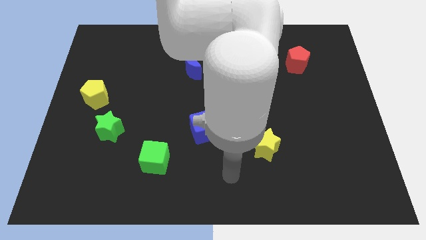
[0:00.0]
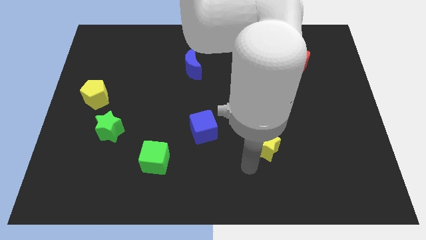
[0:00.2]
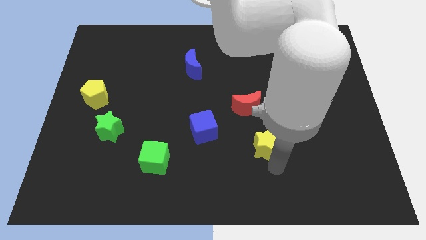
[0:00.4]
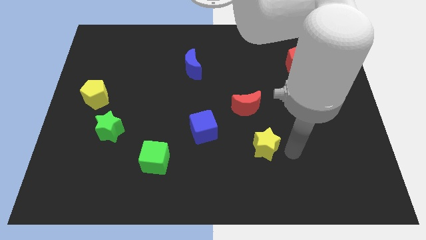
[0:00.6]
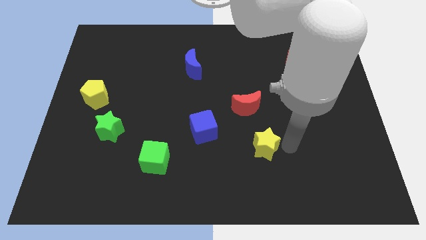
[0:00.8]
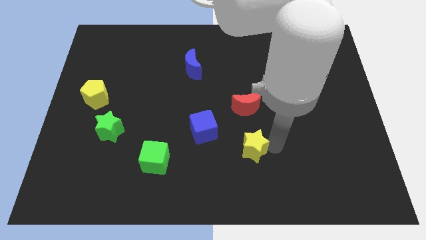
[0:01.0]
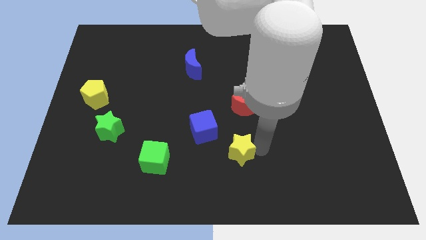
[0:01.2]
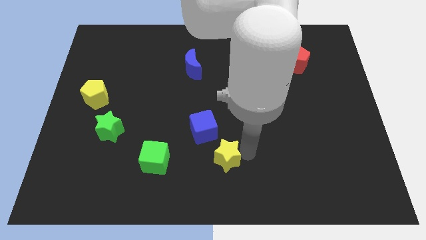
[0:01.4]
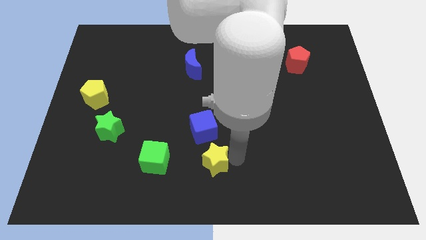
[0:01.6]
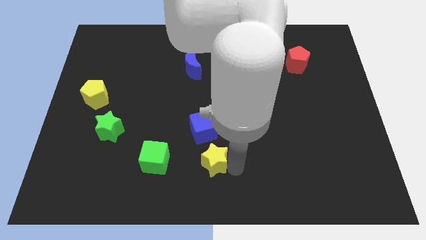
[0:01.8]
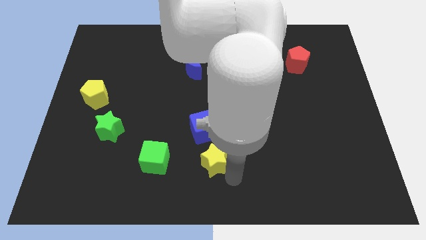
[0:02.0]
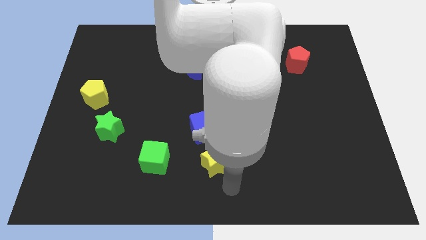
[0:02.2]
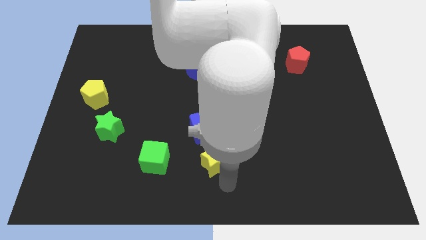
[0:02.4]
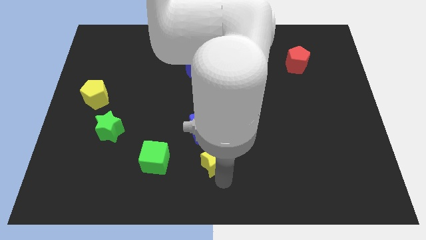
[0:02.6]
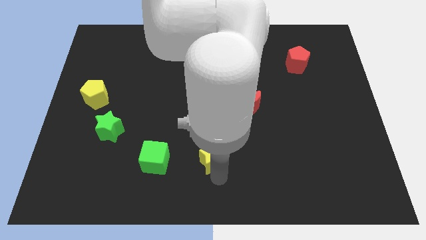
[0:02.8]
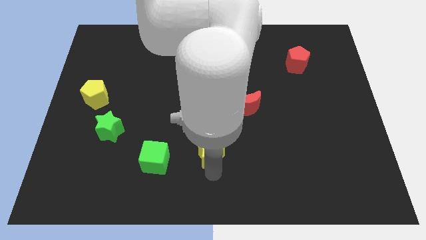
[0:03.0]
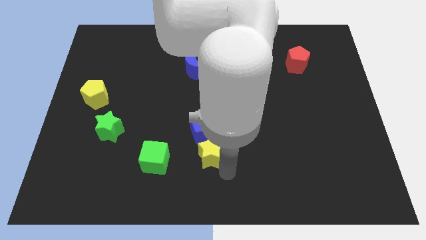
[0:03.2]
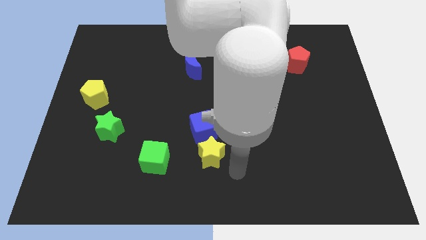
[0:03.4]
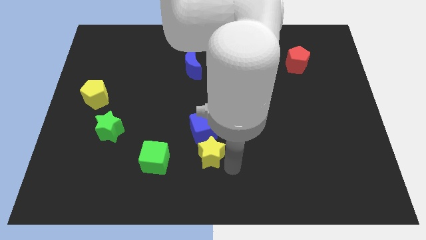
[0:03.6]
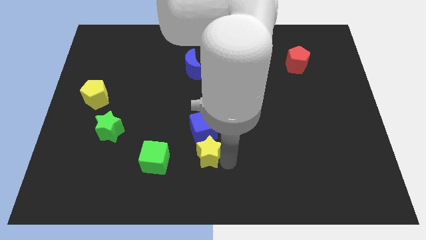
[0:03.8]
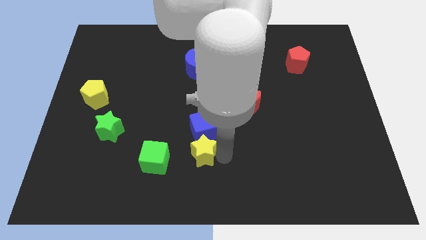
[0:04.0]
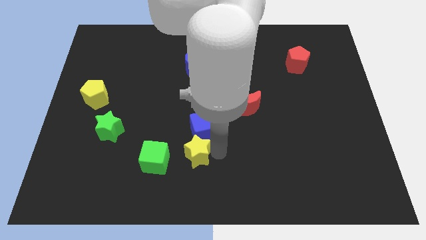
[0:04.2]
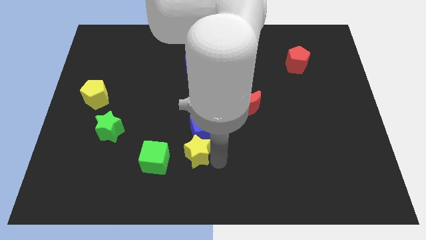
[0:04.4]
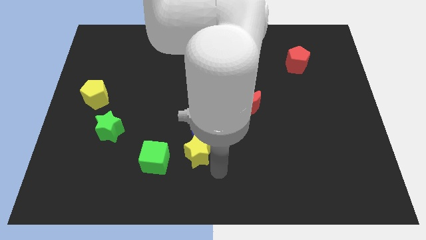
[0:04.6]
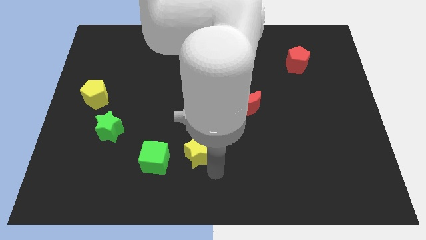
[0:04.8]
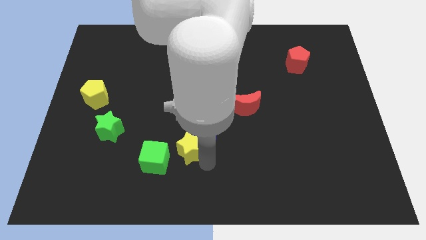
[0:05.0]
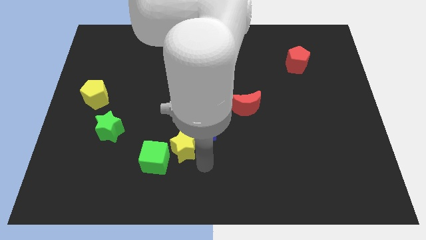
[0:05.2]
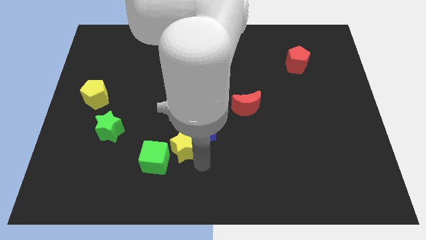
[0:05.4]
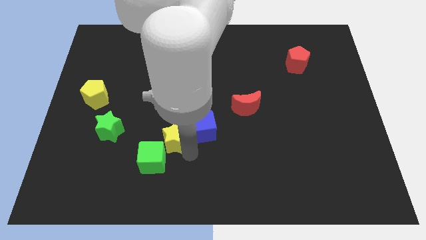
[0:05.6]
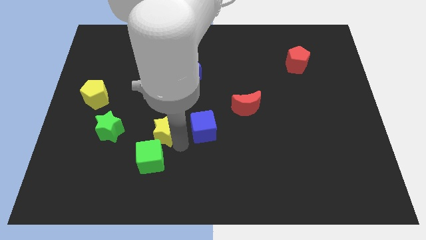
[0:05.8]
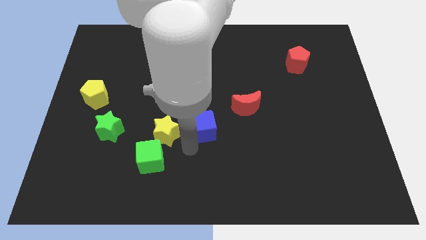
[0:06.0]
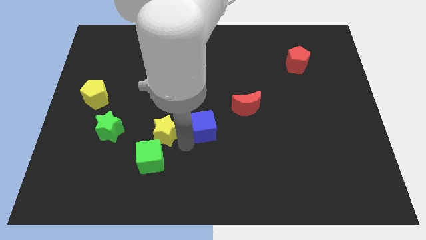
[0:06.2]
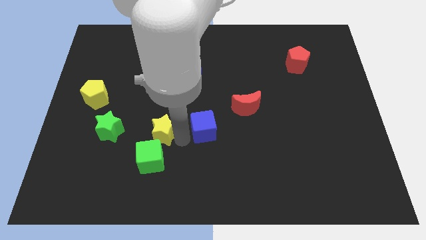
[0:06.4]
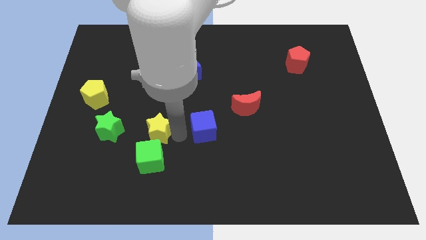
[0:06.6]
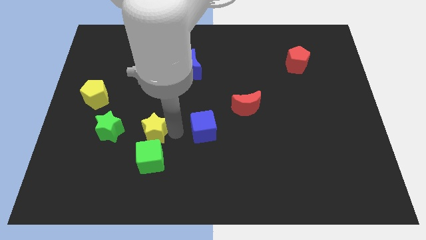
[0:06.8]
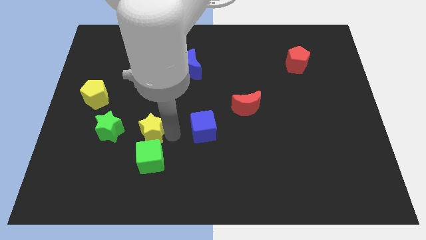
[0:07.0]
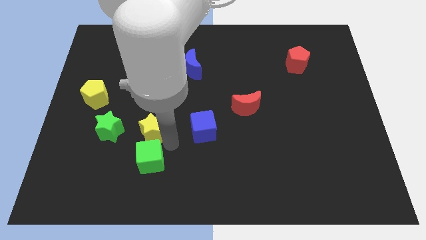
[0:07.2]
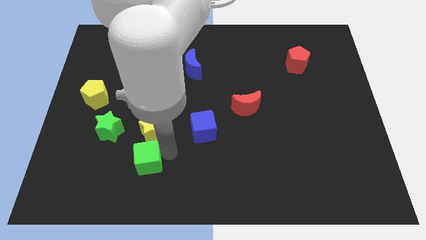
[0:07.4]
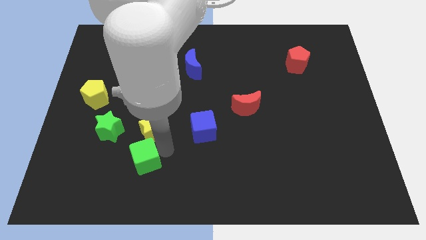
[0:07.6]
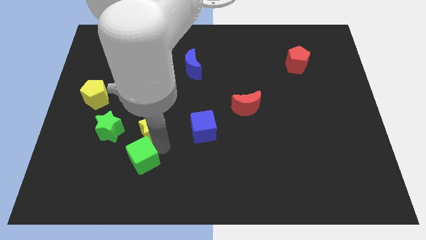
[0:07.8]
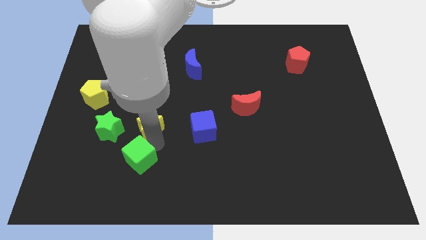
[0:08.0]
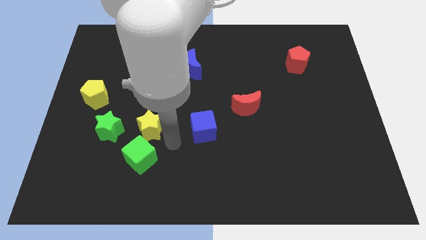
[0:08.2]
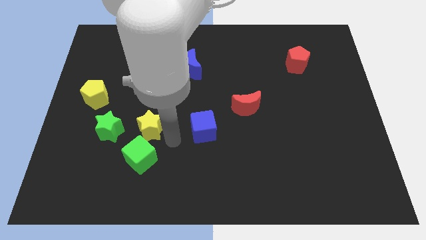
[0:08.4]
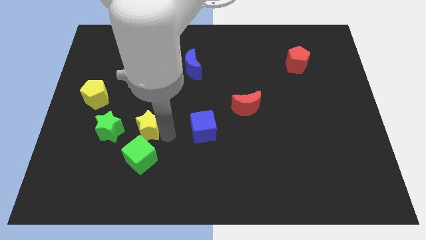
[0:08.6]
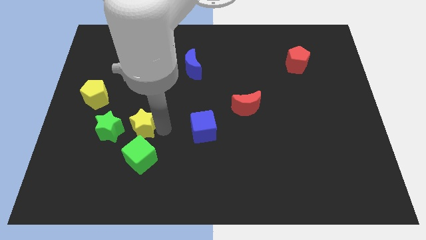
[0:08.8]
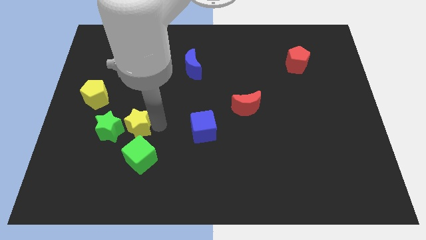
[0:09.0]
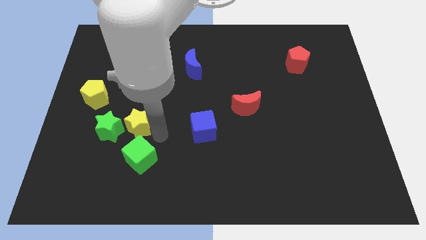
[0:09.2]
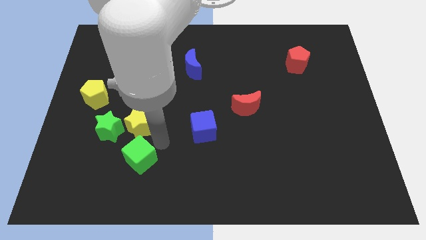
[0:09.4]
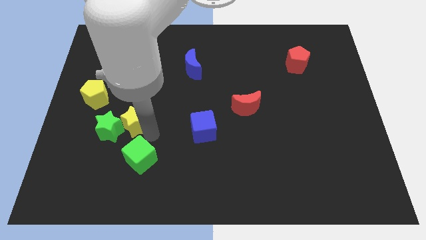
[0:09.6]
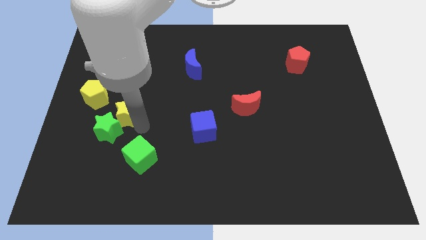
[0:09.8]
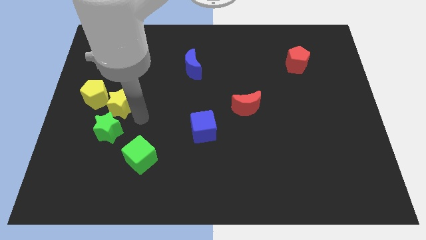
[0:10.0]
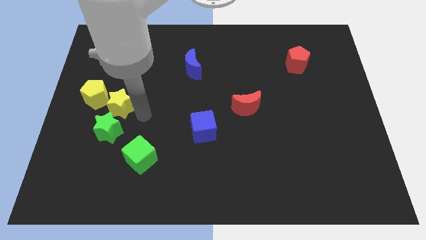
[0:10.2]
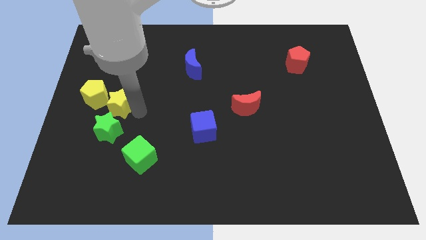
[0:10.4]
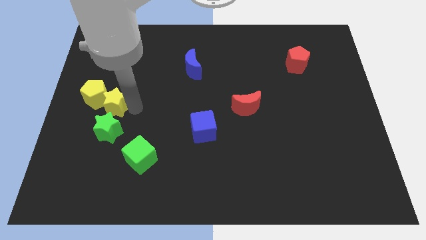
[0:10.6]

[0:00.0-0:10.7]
slide the yellow star to the yellow pentagon

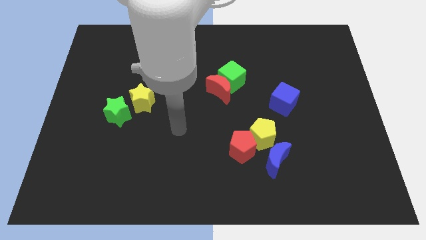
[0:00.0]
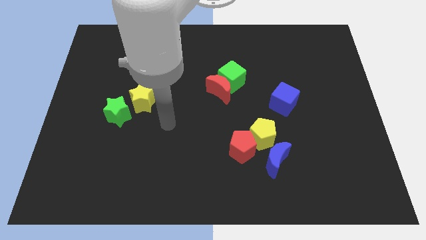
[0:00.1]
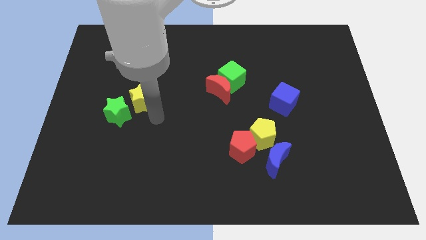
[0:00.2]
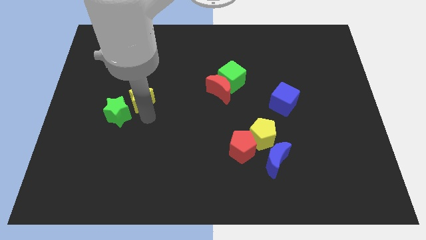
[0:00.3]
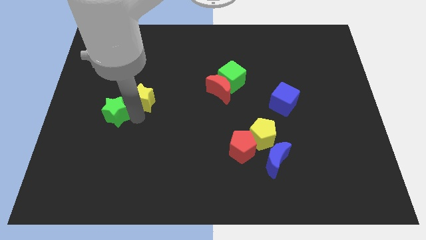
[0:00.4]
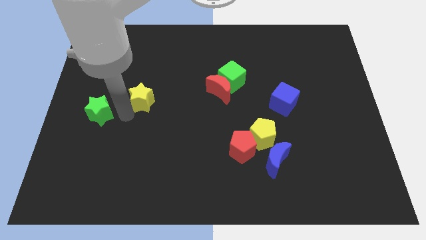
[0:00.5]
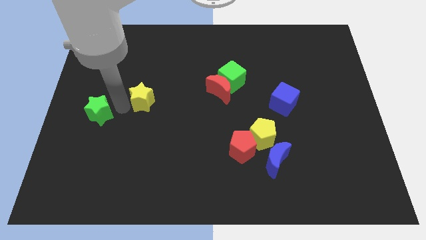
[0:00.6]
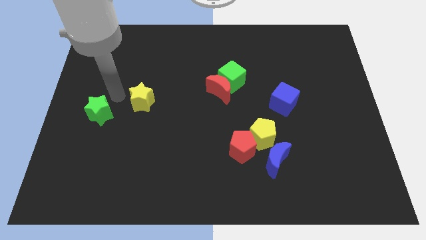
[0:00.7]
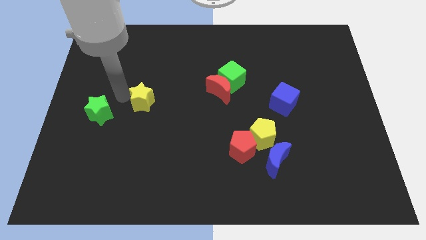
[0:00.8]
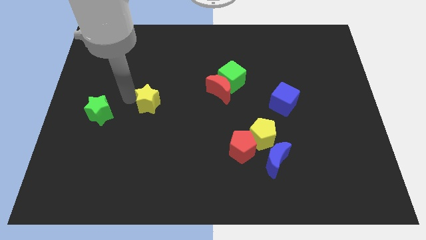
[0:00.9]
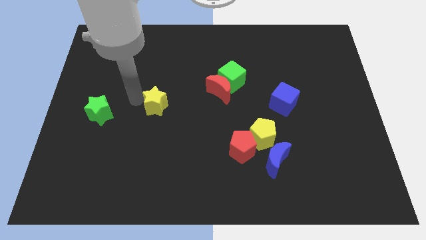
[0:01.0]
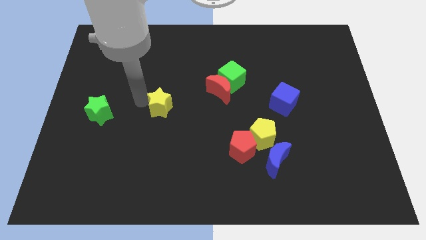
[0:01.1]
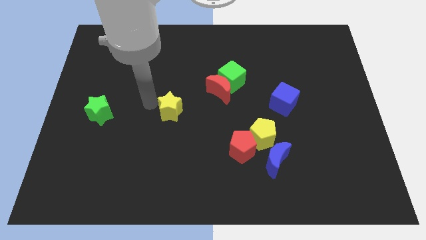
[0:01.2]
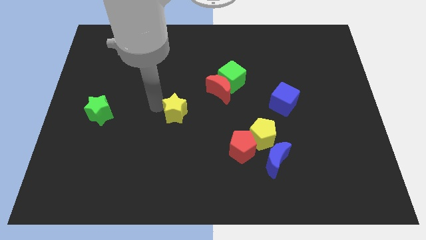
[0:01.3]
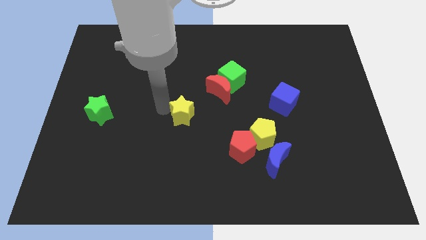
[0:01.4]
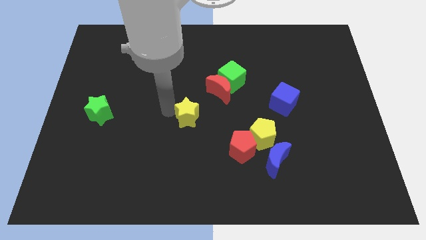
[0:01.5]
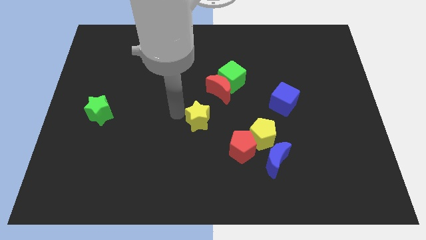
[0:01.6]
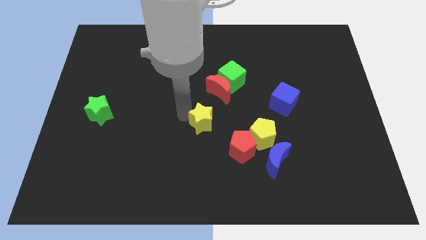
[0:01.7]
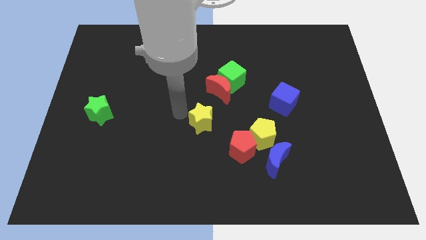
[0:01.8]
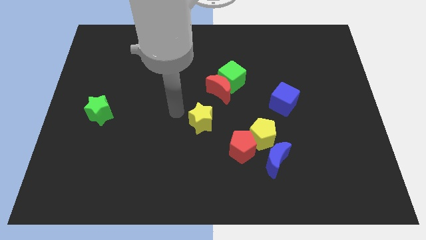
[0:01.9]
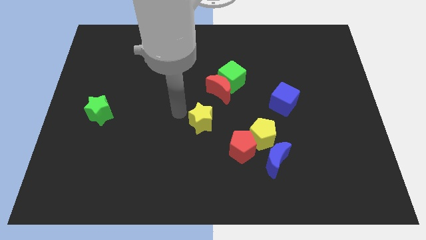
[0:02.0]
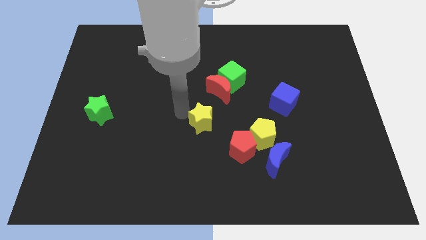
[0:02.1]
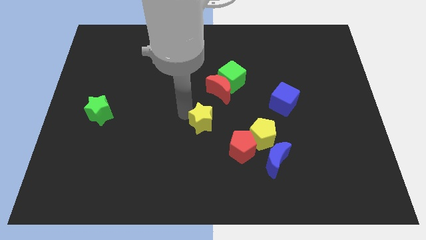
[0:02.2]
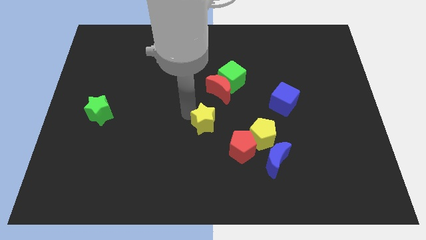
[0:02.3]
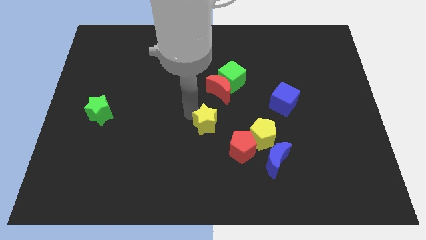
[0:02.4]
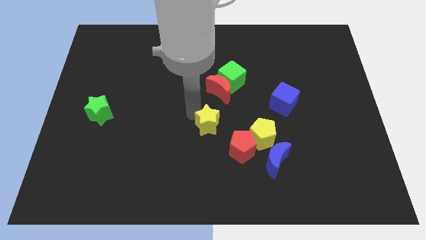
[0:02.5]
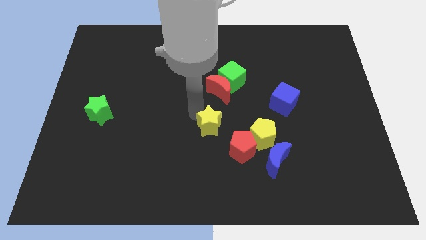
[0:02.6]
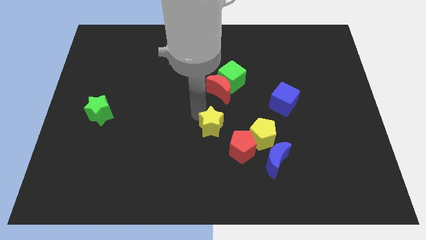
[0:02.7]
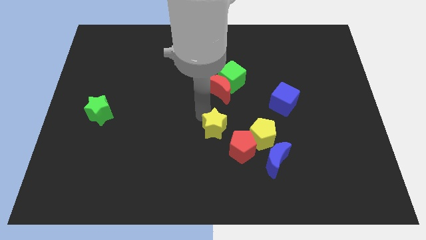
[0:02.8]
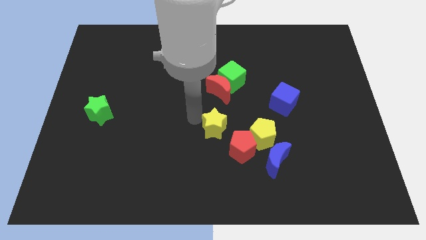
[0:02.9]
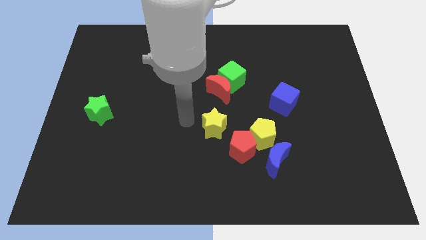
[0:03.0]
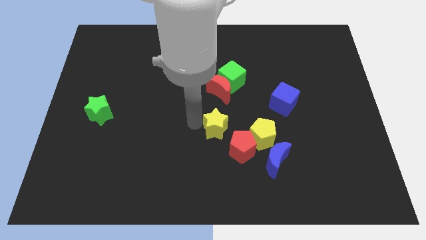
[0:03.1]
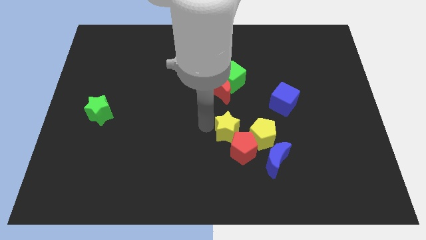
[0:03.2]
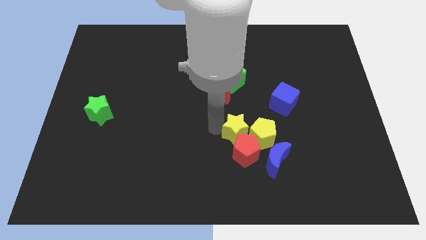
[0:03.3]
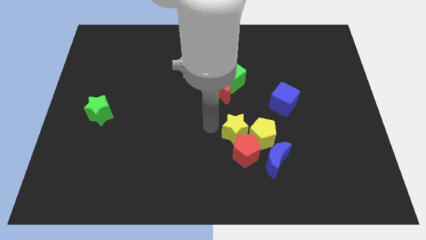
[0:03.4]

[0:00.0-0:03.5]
put the yellow star close to the yellow pentagon
